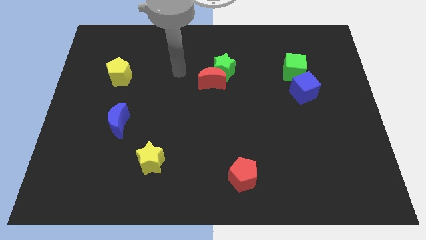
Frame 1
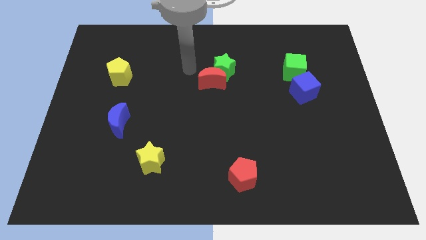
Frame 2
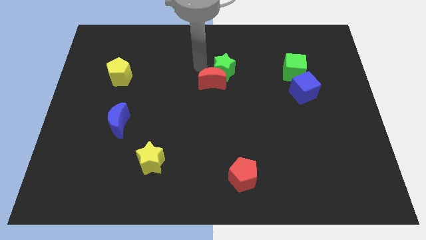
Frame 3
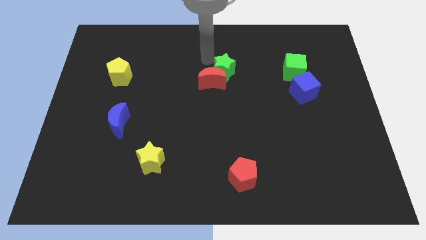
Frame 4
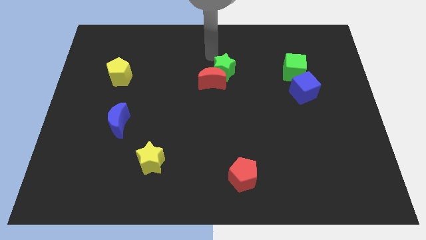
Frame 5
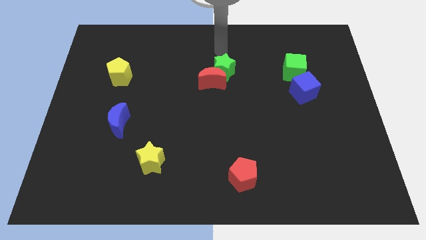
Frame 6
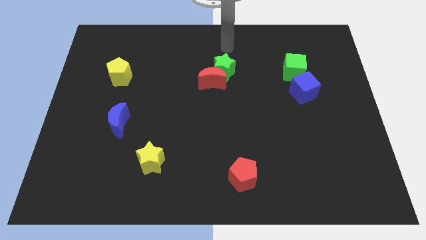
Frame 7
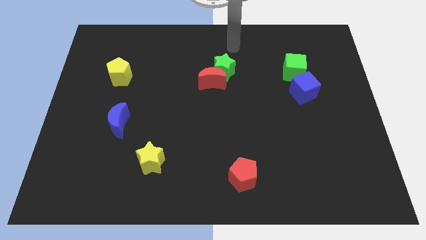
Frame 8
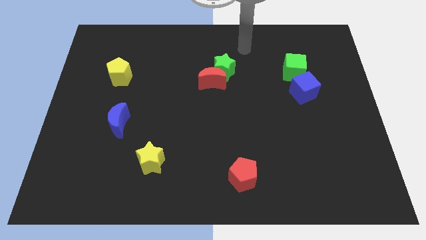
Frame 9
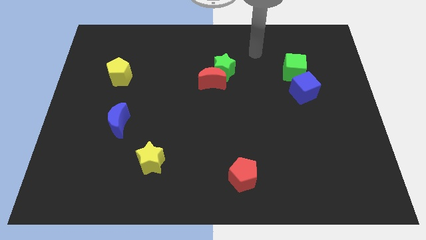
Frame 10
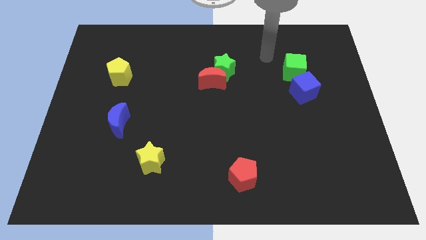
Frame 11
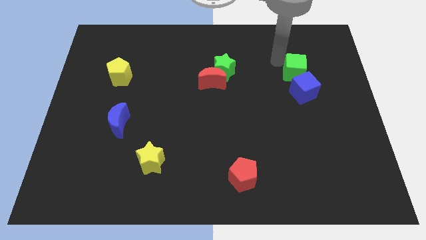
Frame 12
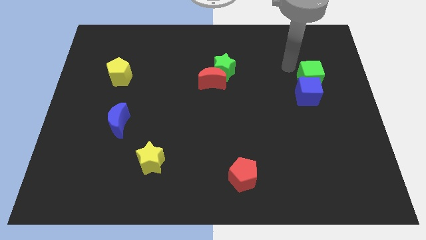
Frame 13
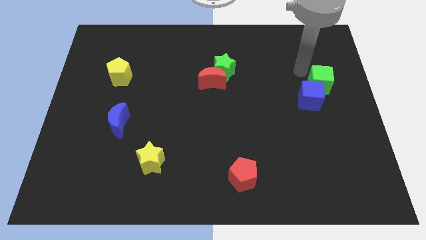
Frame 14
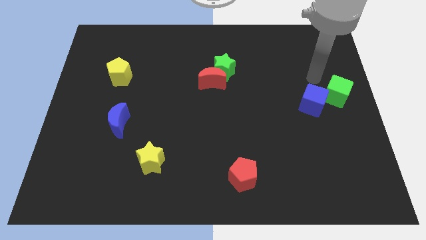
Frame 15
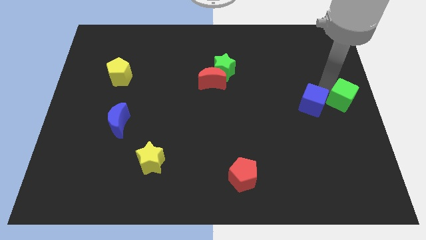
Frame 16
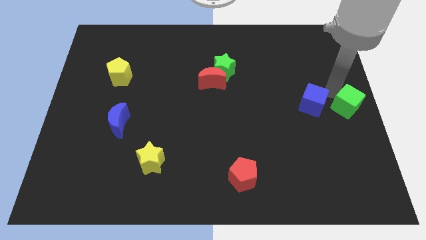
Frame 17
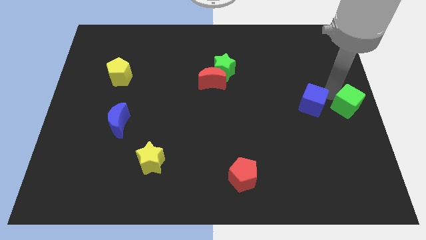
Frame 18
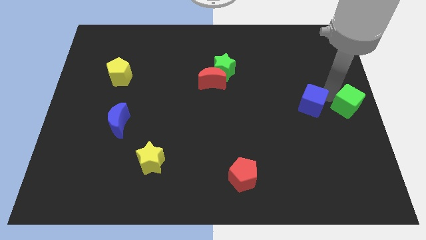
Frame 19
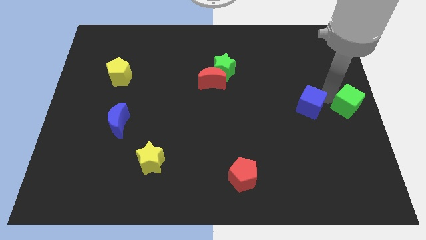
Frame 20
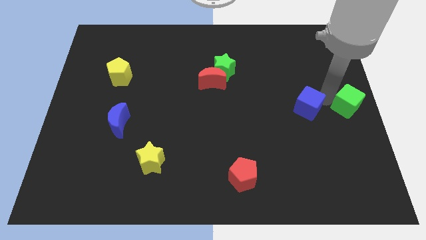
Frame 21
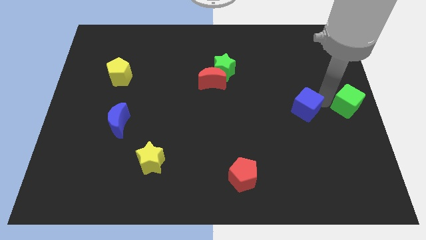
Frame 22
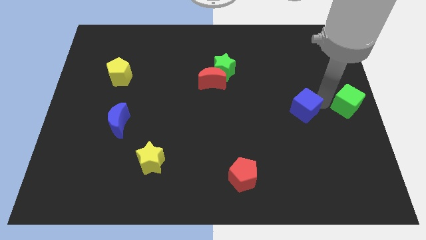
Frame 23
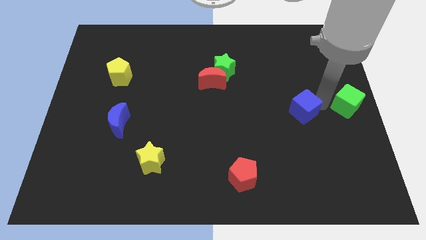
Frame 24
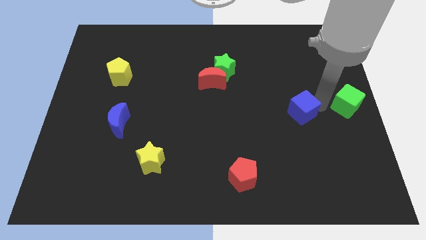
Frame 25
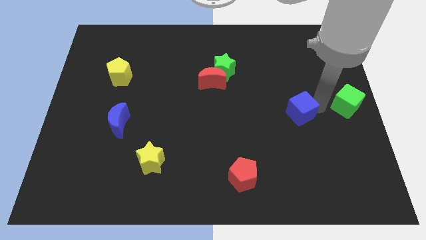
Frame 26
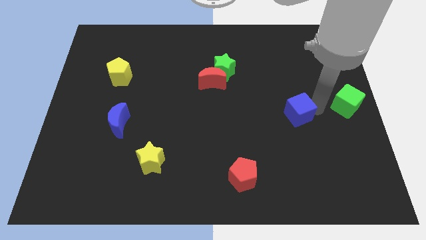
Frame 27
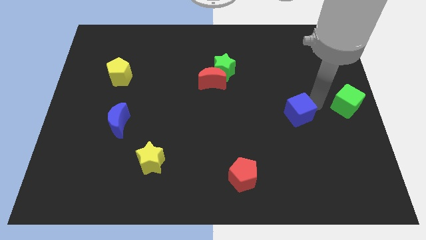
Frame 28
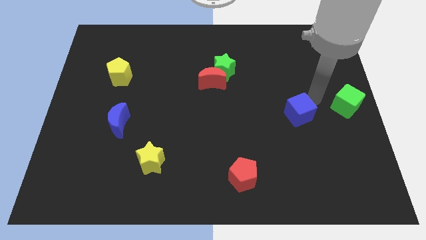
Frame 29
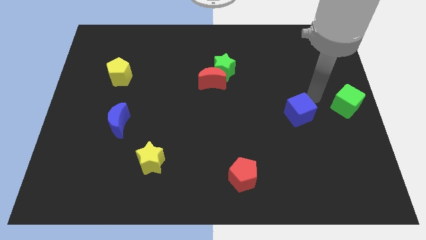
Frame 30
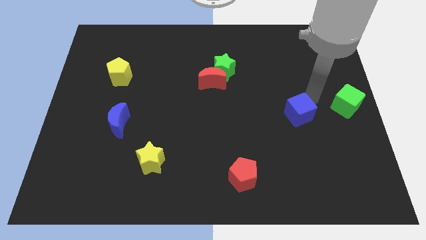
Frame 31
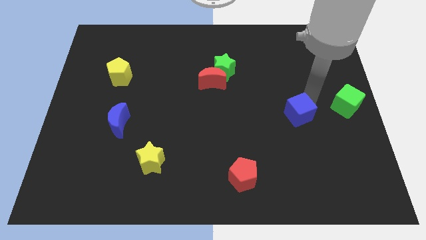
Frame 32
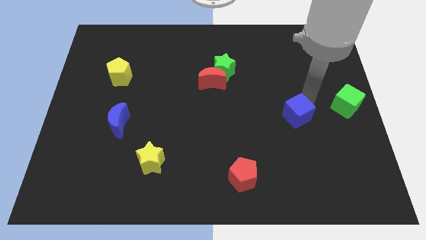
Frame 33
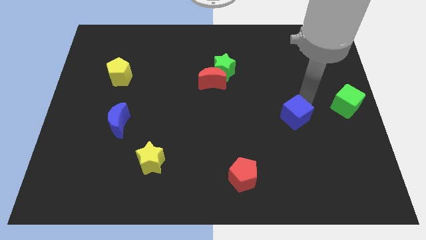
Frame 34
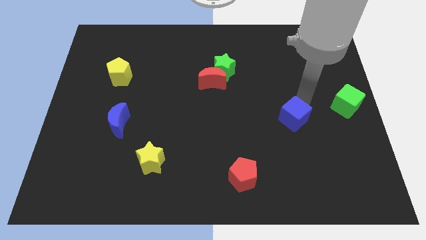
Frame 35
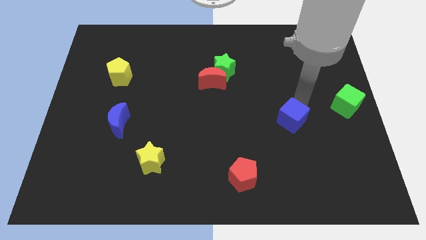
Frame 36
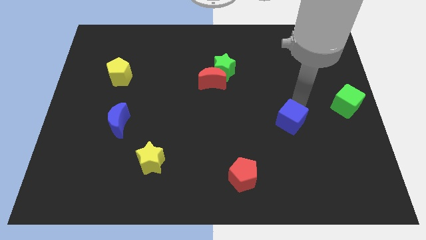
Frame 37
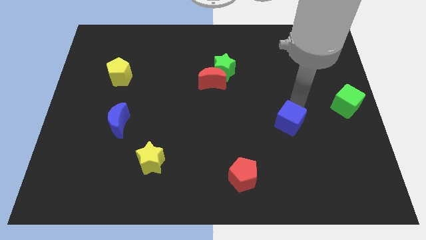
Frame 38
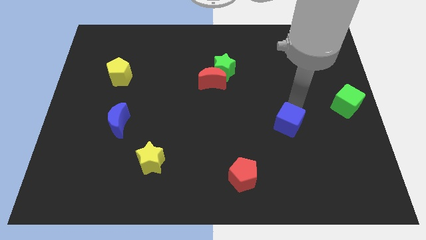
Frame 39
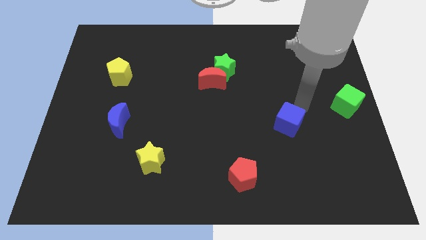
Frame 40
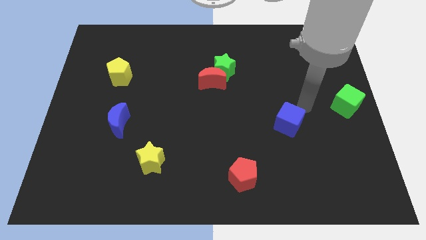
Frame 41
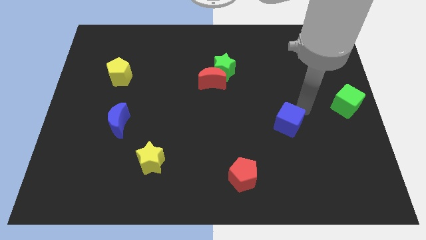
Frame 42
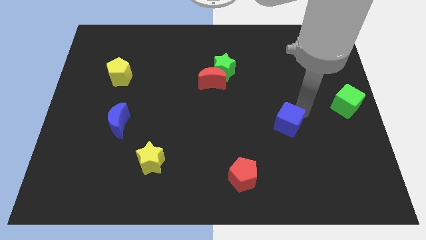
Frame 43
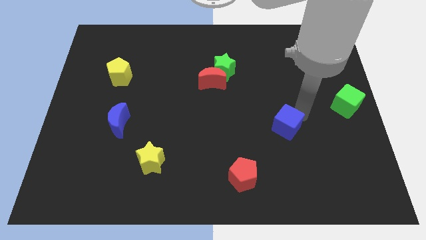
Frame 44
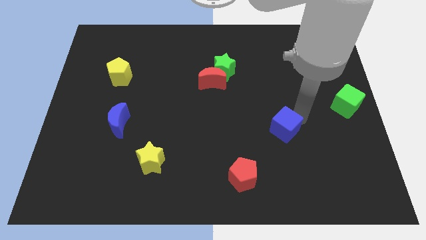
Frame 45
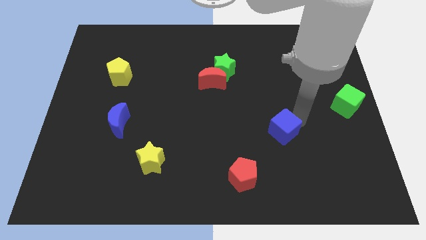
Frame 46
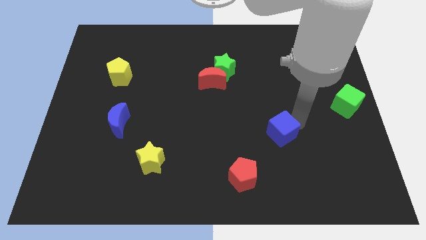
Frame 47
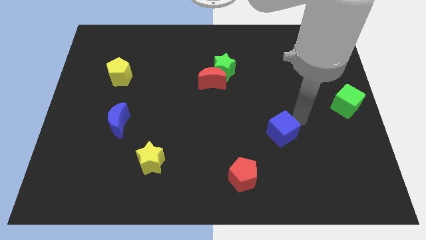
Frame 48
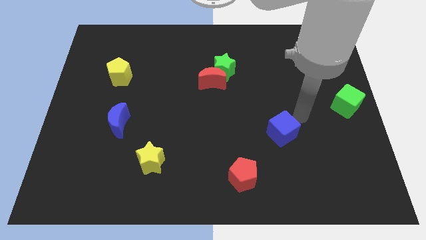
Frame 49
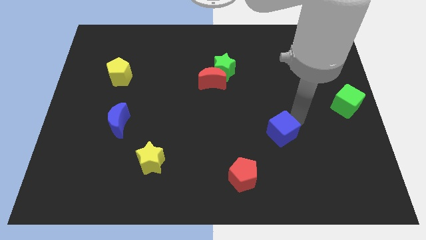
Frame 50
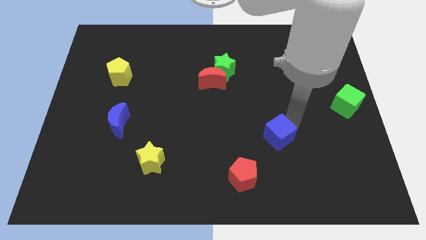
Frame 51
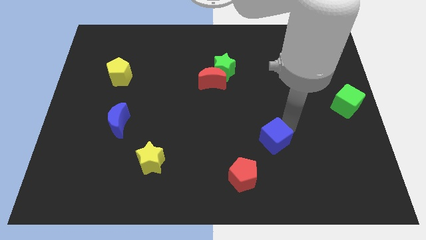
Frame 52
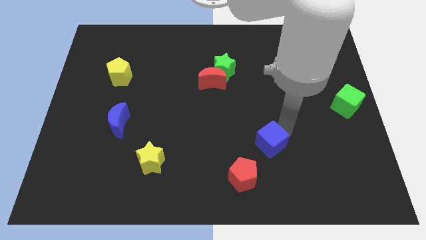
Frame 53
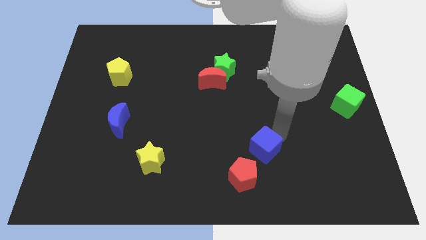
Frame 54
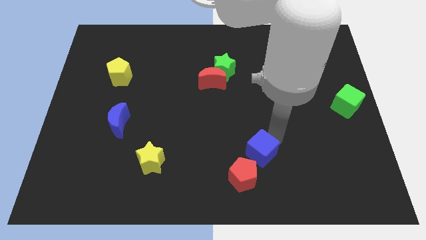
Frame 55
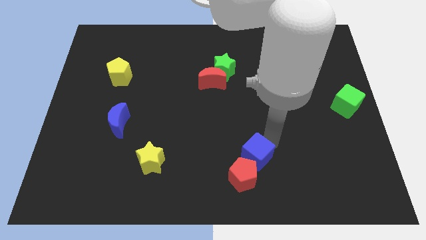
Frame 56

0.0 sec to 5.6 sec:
push the blue cube next to the red pentagon

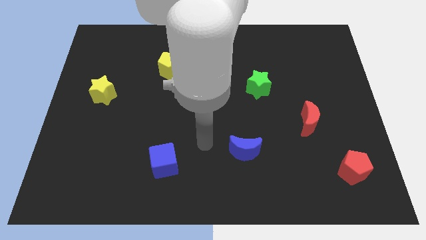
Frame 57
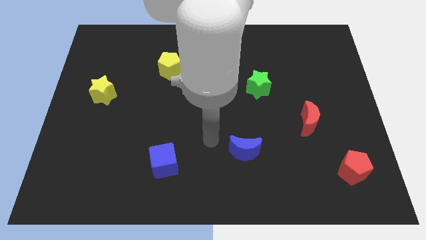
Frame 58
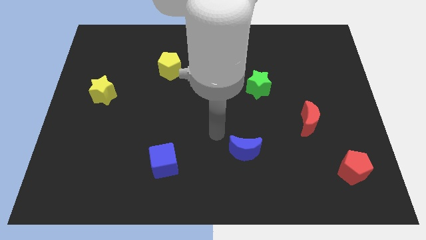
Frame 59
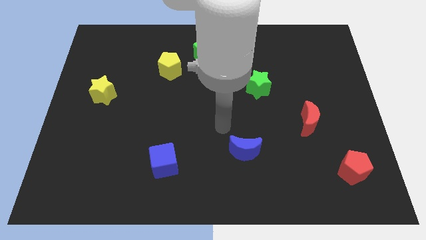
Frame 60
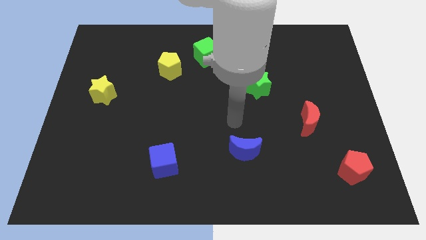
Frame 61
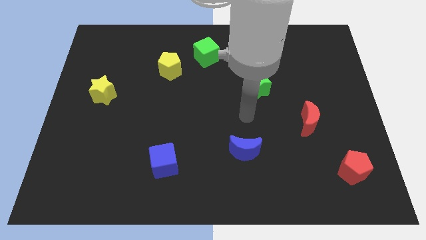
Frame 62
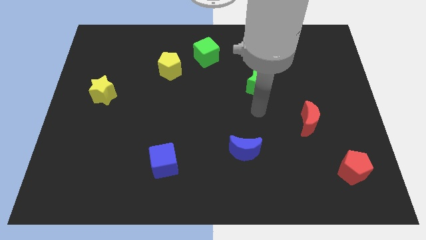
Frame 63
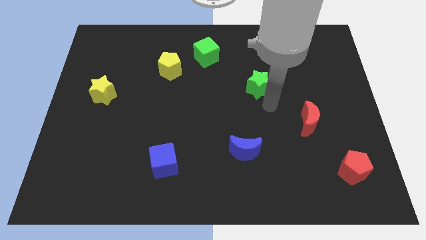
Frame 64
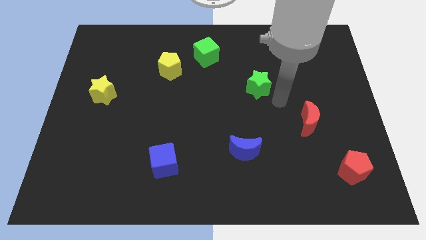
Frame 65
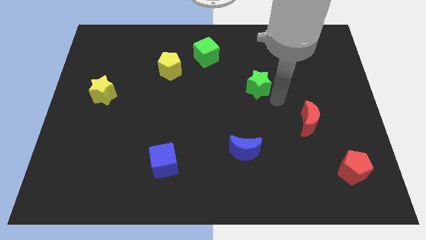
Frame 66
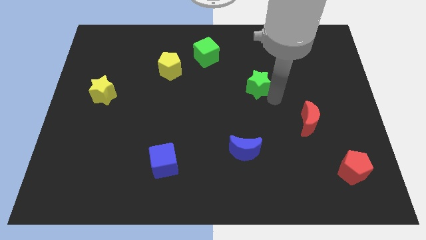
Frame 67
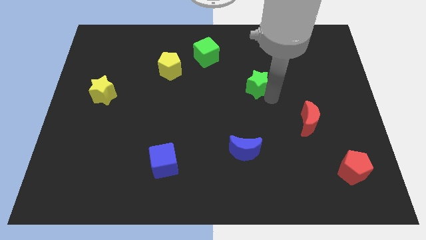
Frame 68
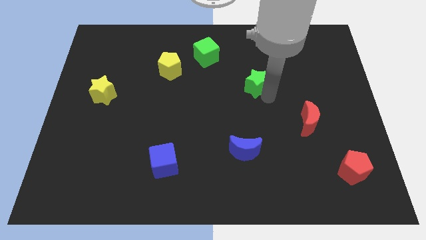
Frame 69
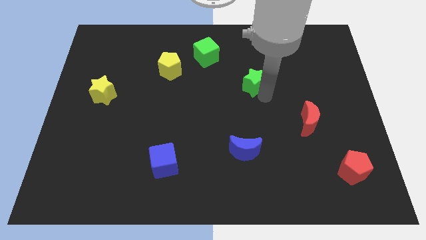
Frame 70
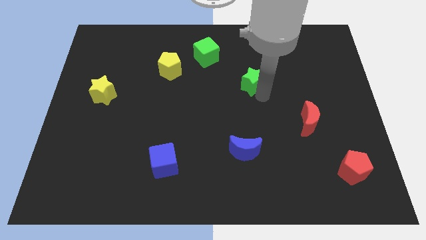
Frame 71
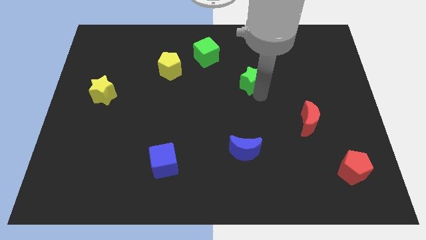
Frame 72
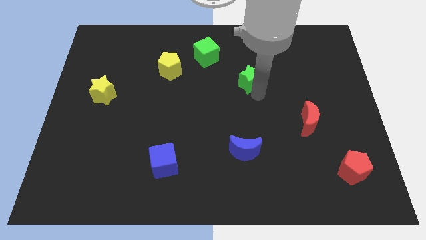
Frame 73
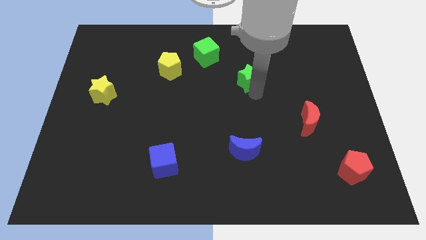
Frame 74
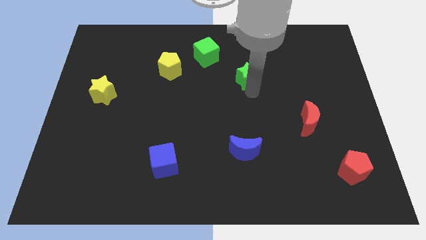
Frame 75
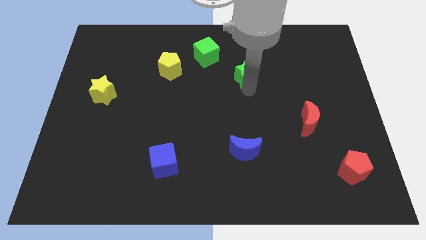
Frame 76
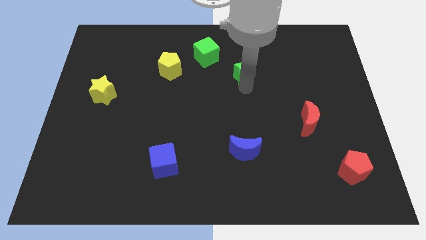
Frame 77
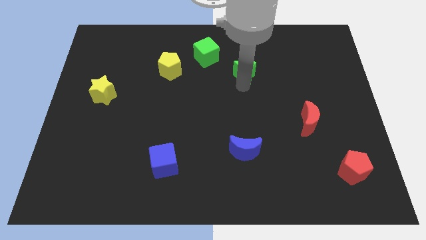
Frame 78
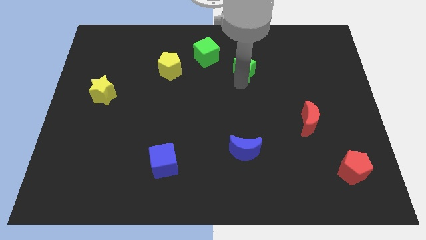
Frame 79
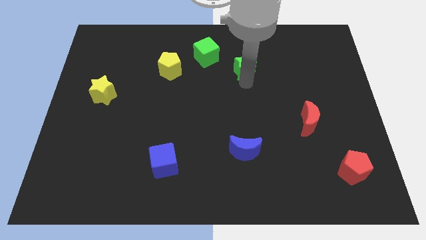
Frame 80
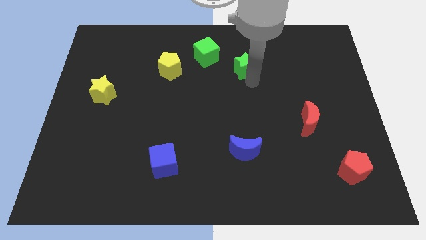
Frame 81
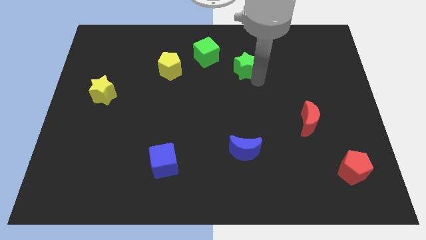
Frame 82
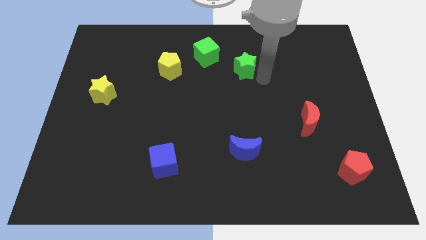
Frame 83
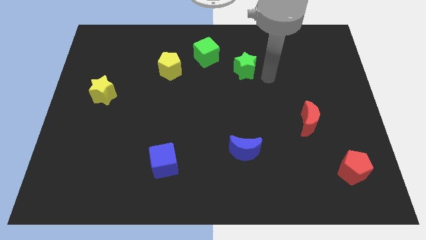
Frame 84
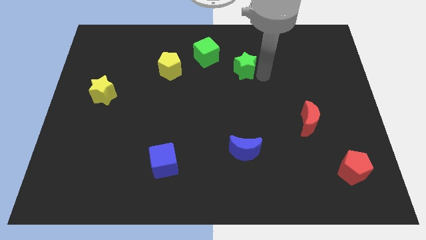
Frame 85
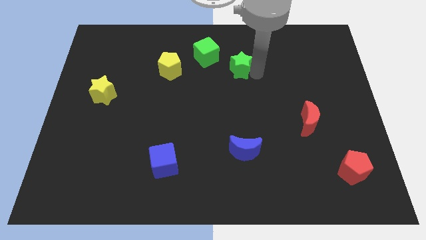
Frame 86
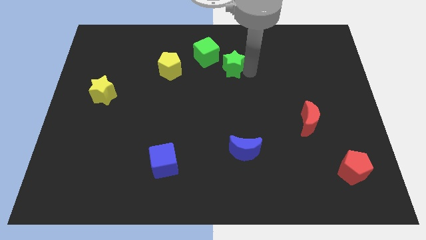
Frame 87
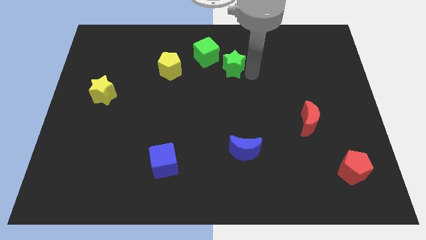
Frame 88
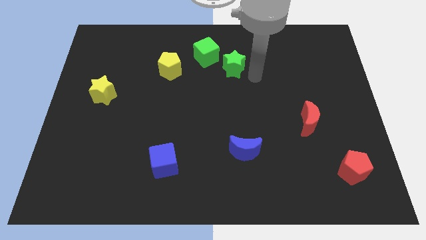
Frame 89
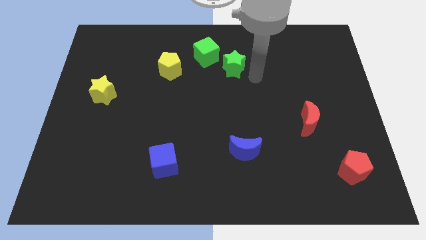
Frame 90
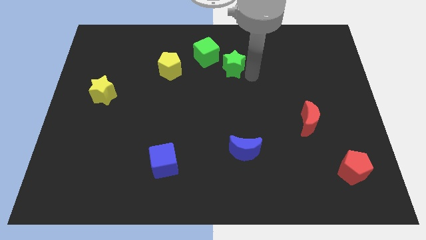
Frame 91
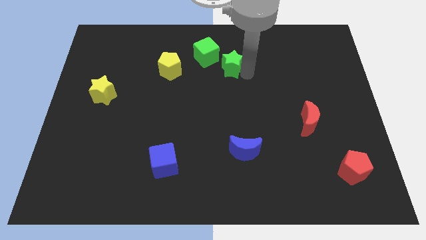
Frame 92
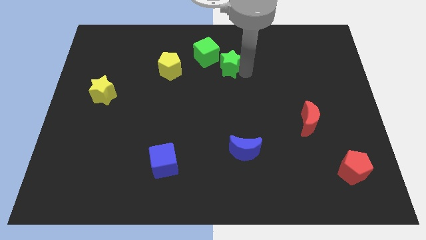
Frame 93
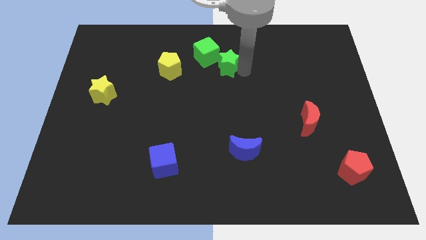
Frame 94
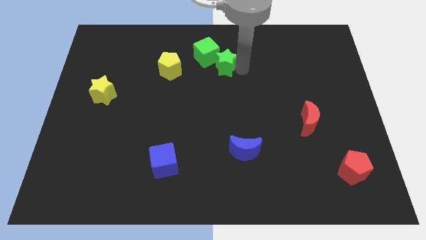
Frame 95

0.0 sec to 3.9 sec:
slide the green star next to the green cube
